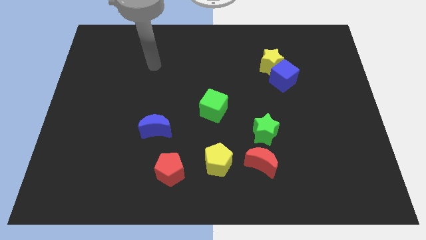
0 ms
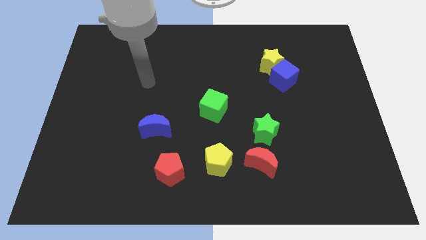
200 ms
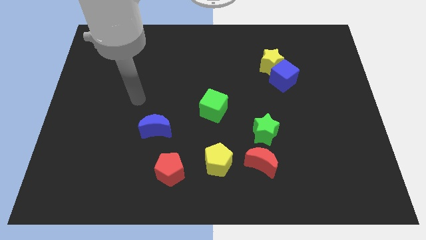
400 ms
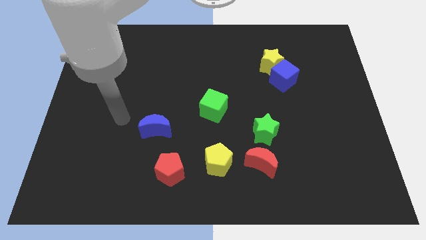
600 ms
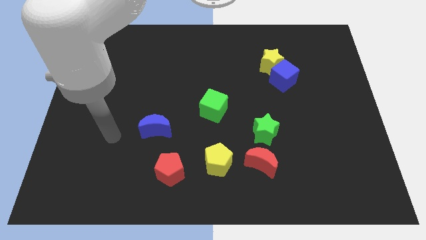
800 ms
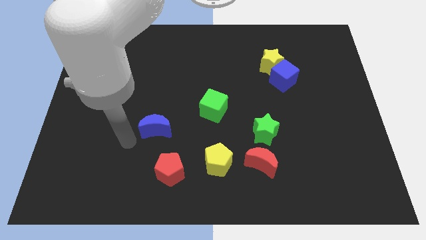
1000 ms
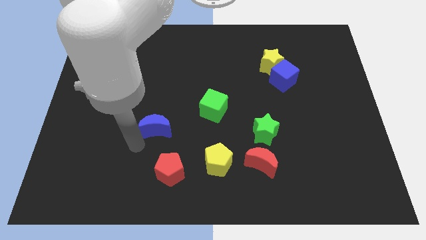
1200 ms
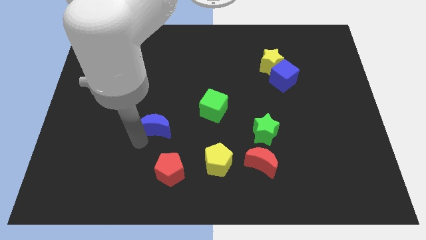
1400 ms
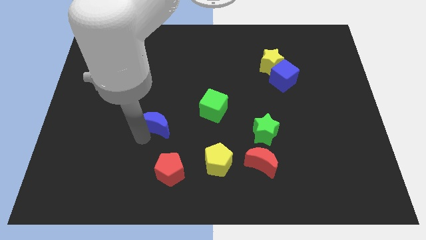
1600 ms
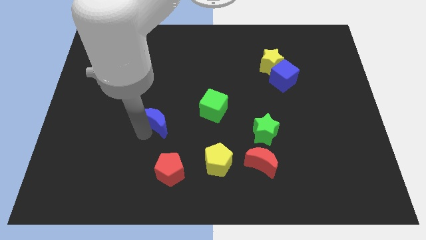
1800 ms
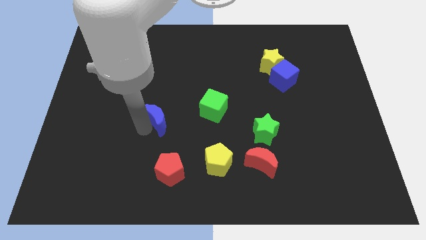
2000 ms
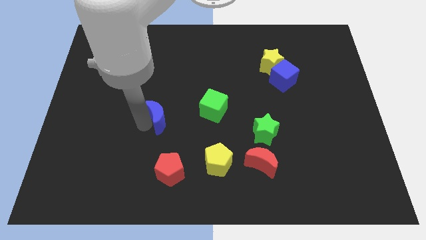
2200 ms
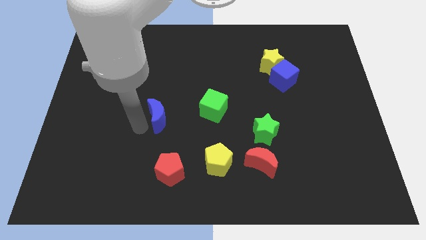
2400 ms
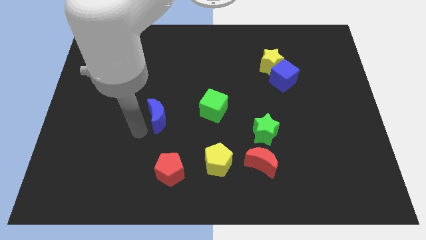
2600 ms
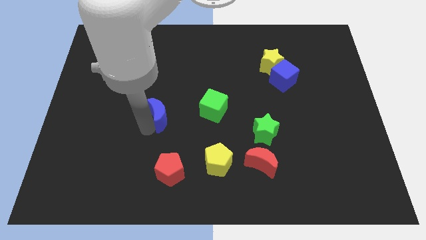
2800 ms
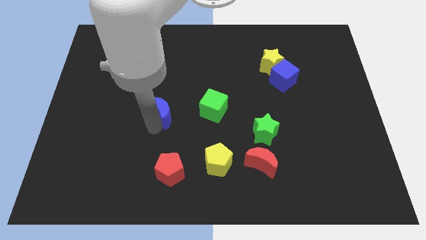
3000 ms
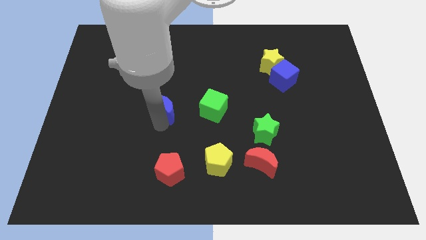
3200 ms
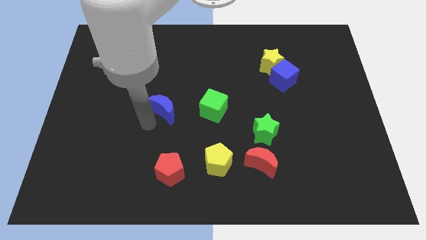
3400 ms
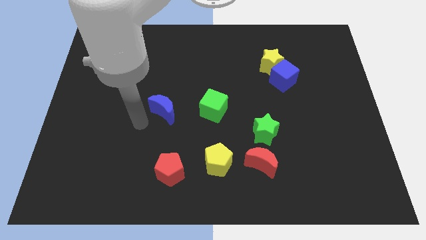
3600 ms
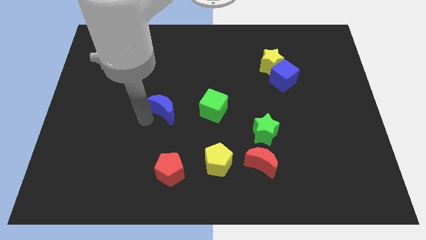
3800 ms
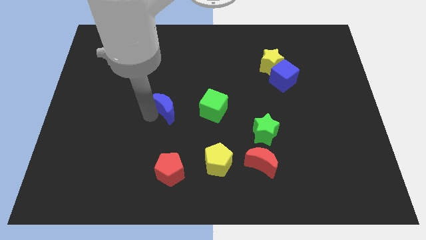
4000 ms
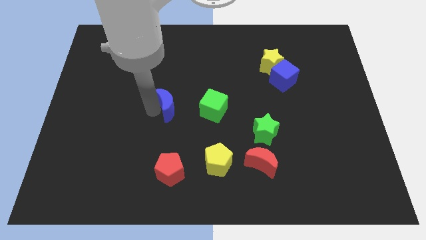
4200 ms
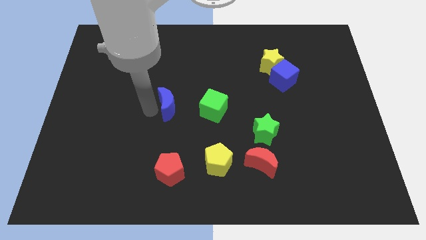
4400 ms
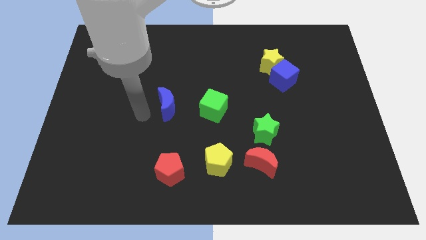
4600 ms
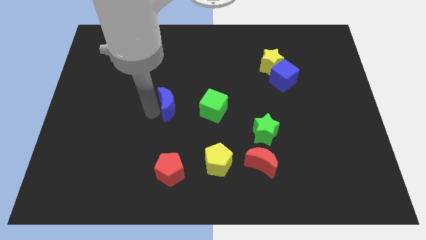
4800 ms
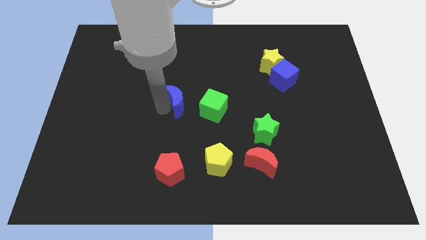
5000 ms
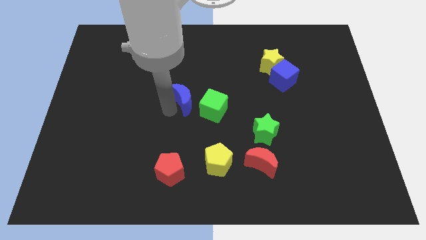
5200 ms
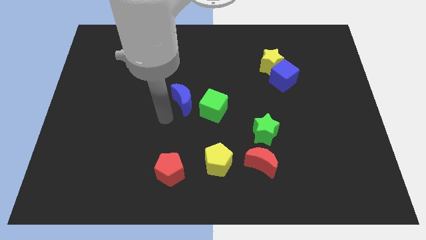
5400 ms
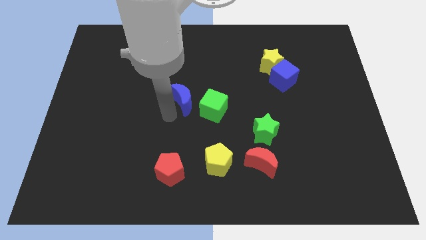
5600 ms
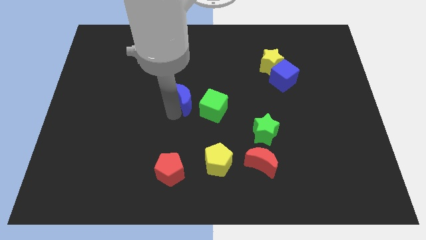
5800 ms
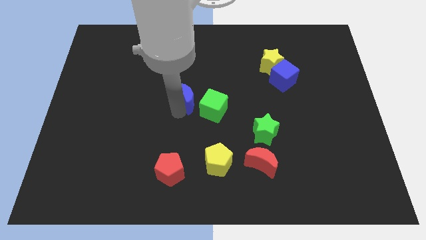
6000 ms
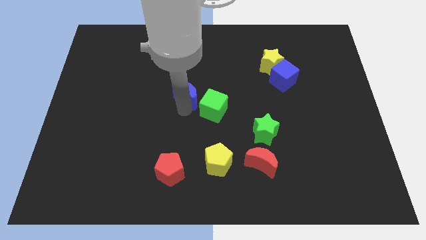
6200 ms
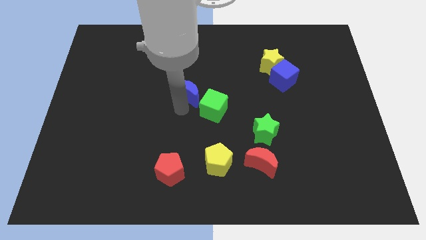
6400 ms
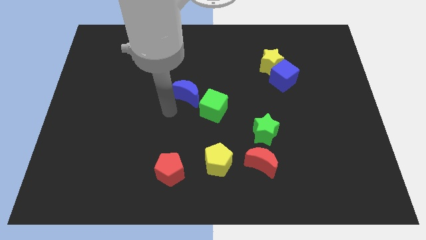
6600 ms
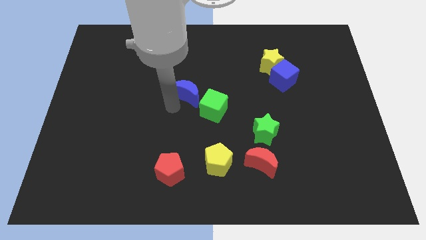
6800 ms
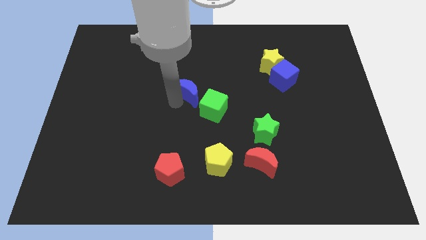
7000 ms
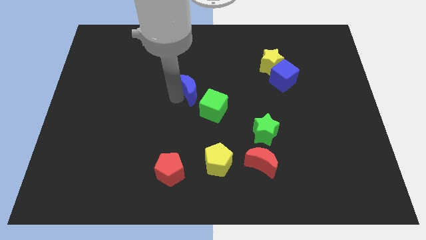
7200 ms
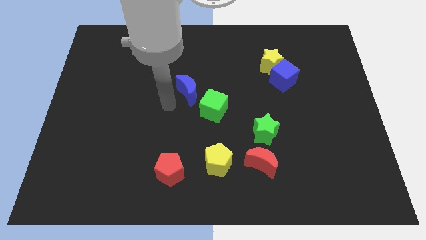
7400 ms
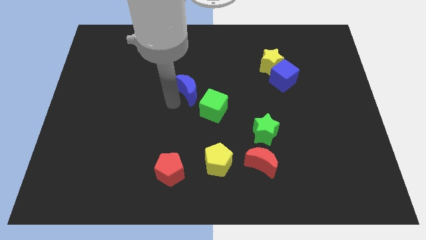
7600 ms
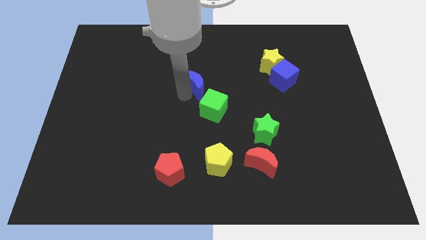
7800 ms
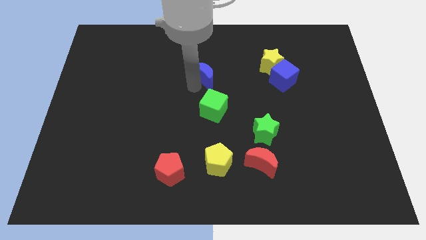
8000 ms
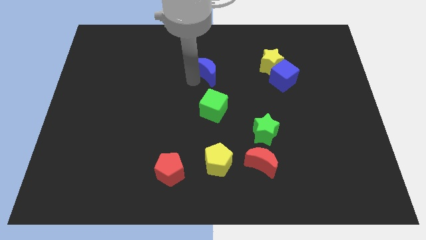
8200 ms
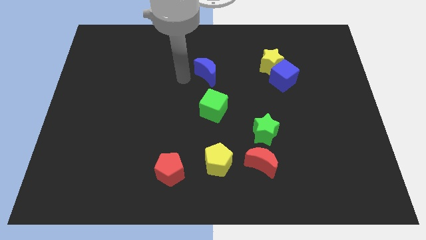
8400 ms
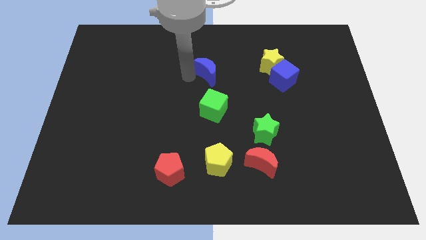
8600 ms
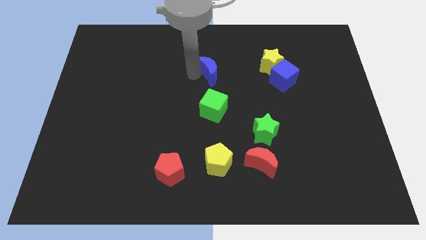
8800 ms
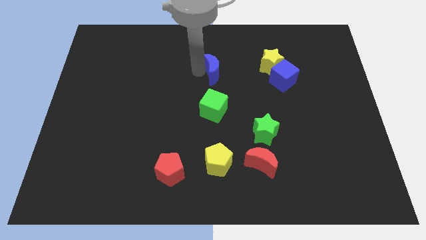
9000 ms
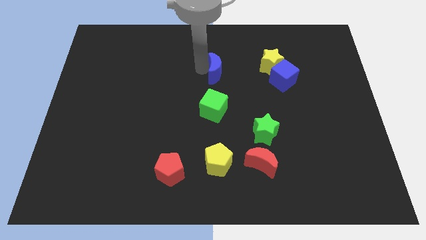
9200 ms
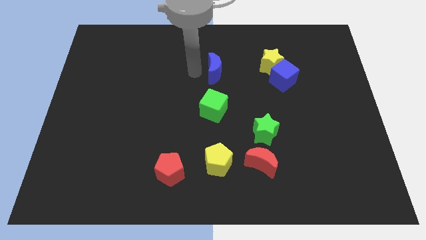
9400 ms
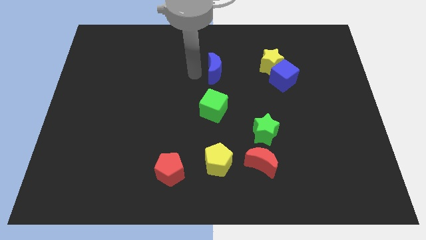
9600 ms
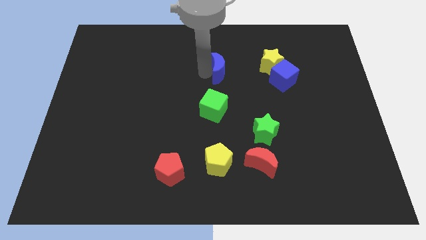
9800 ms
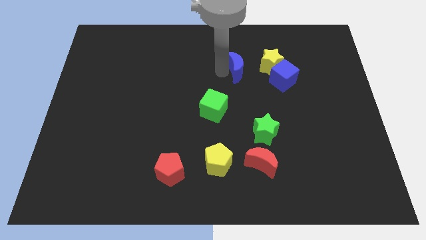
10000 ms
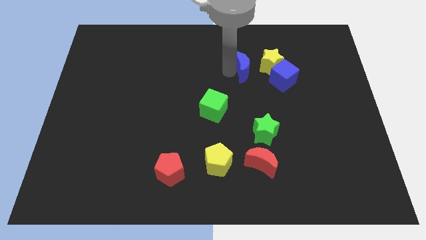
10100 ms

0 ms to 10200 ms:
slide the blue moon to the top left side of the blue cube

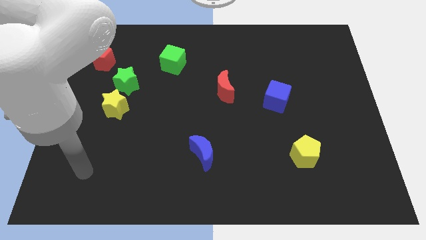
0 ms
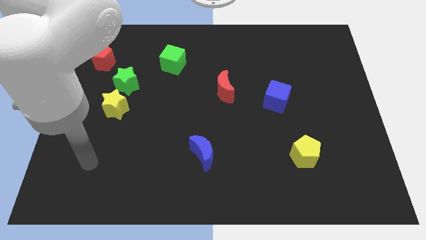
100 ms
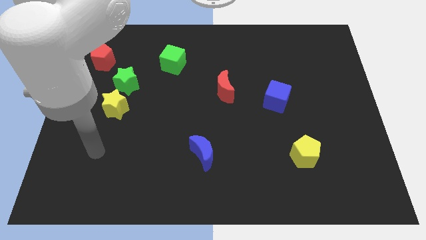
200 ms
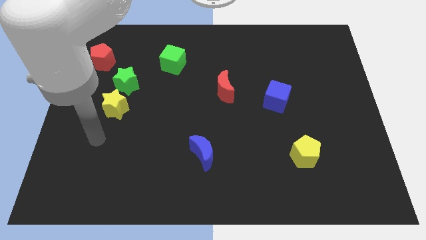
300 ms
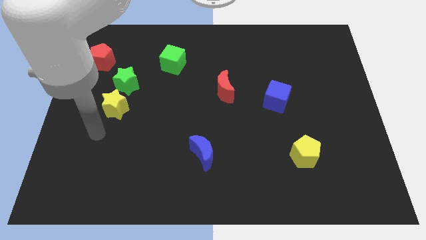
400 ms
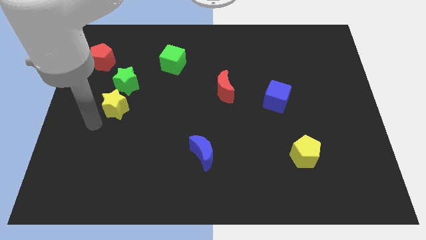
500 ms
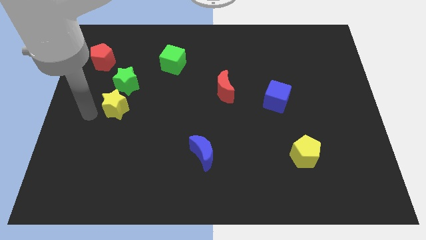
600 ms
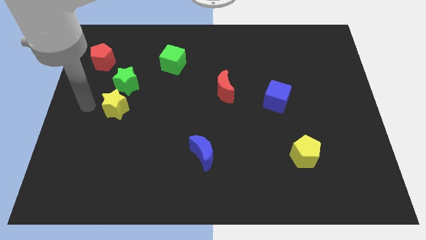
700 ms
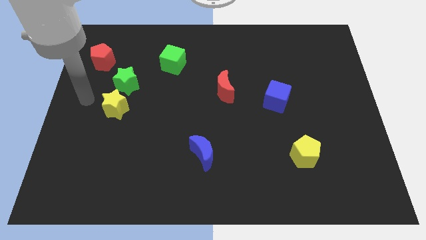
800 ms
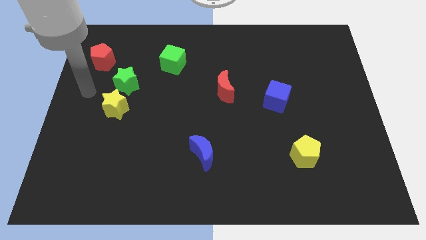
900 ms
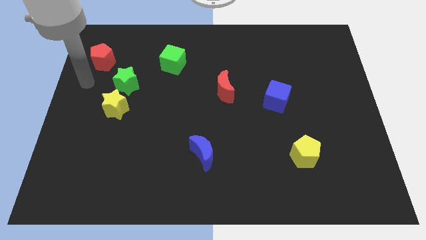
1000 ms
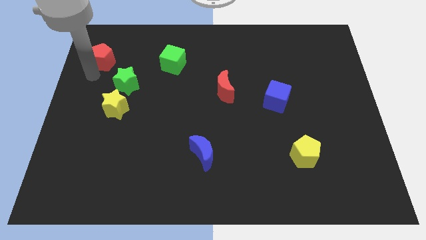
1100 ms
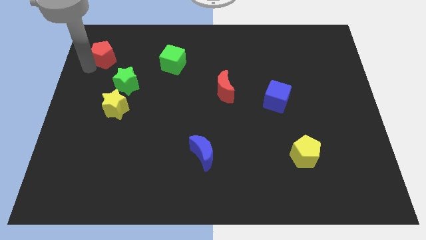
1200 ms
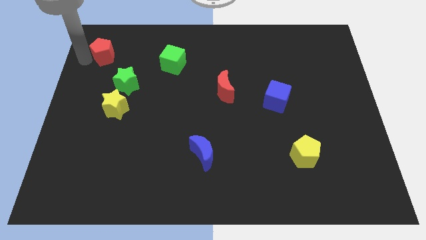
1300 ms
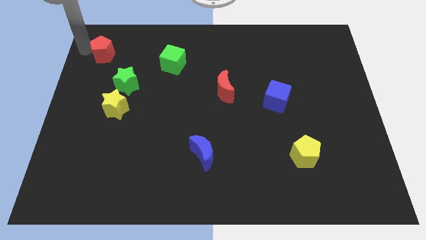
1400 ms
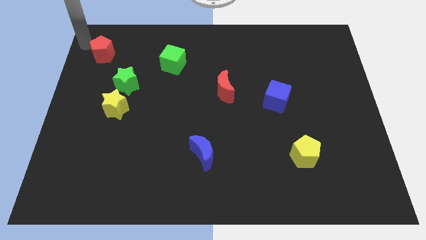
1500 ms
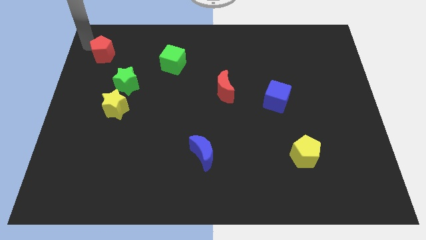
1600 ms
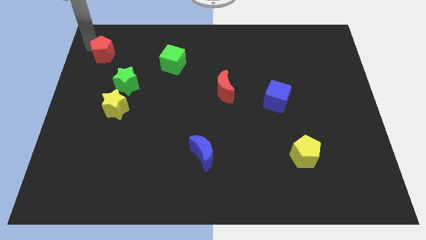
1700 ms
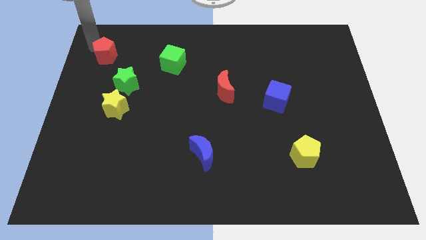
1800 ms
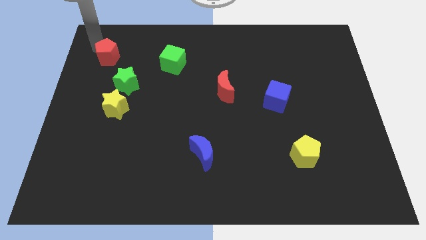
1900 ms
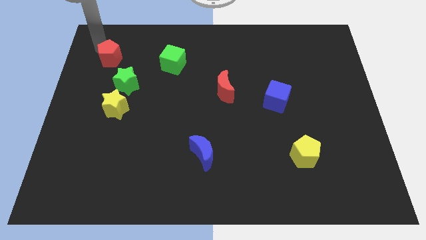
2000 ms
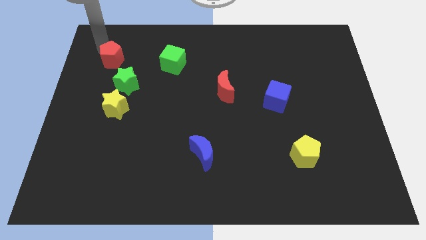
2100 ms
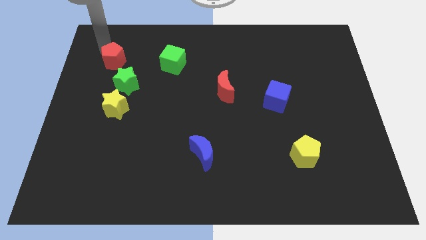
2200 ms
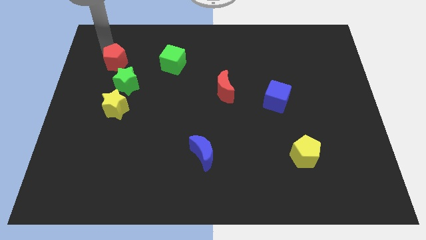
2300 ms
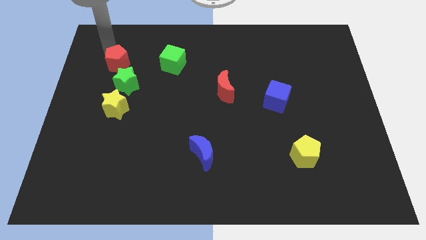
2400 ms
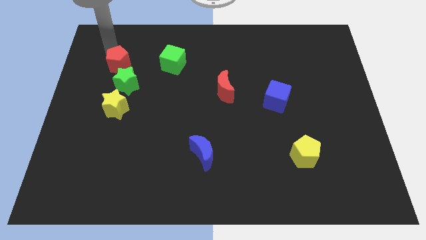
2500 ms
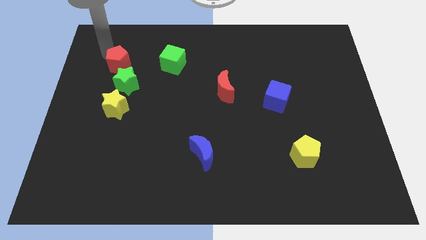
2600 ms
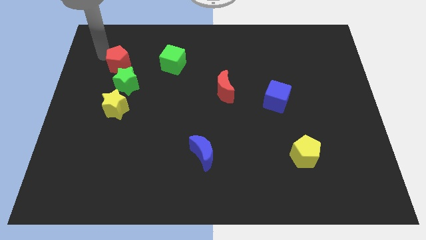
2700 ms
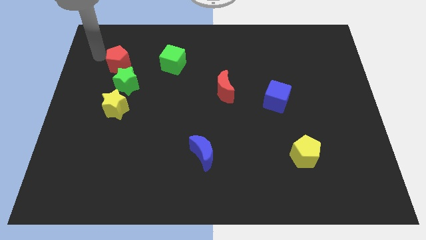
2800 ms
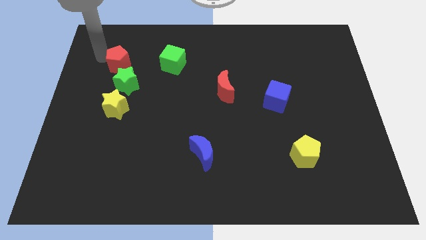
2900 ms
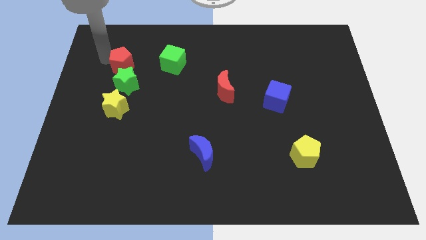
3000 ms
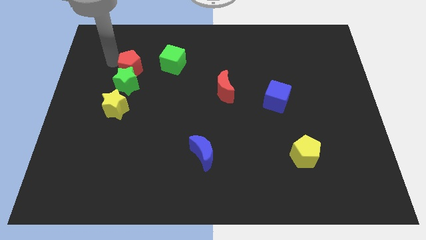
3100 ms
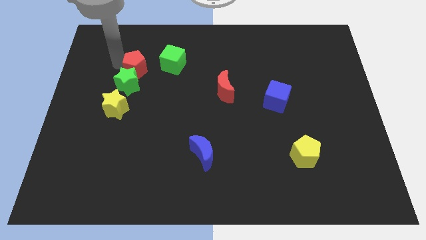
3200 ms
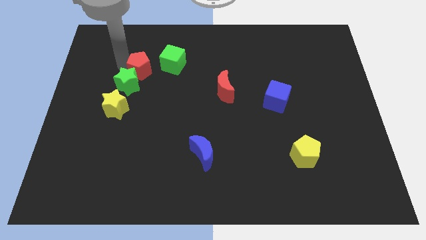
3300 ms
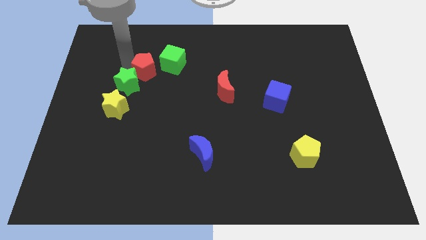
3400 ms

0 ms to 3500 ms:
slide the red pentagon to the right side of the green star
